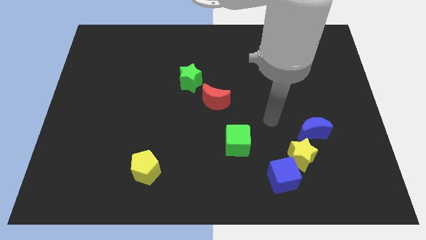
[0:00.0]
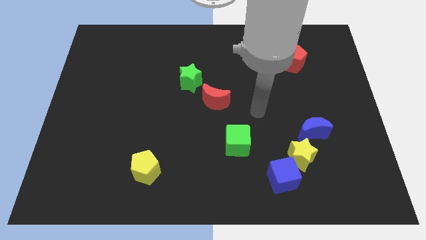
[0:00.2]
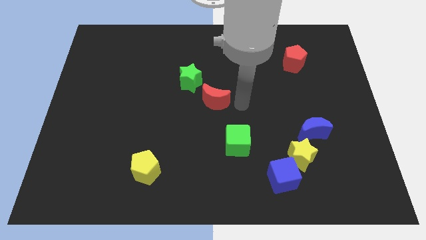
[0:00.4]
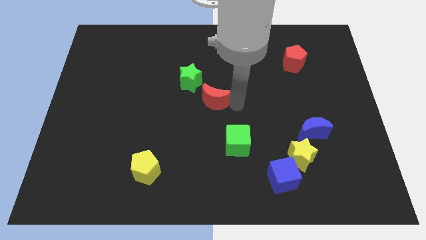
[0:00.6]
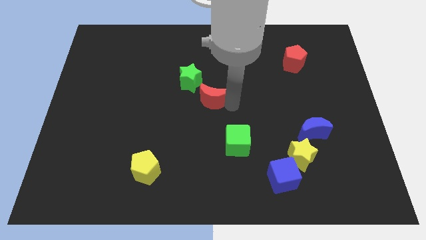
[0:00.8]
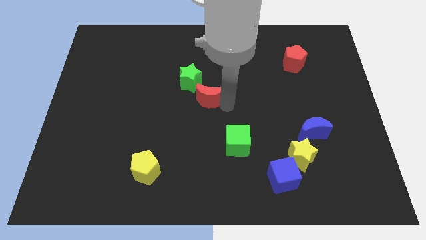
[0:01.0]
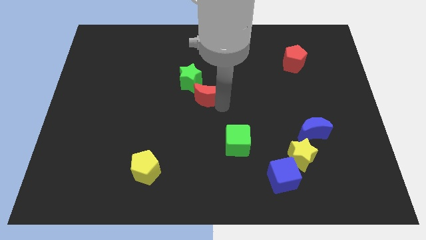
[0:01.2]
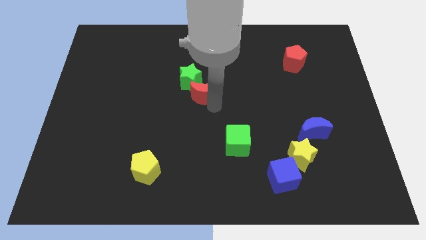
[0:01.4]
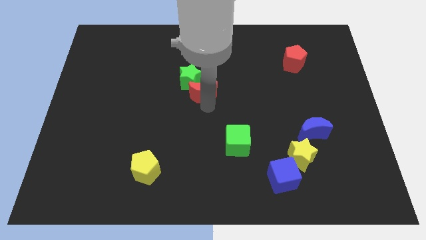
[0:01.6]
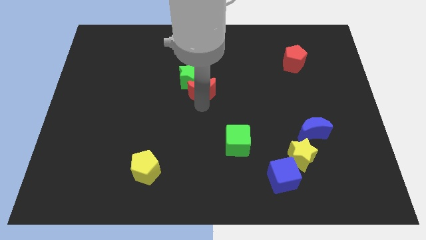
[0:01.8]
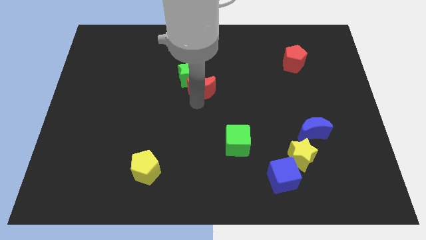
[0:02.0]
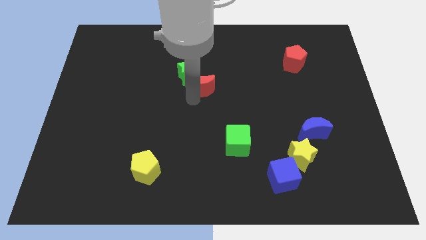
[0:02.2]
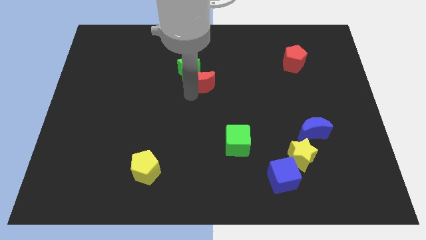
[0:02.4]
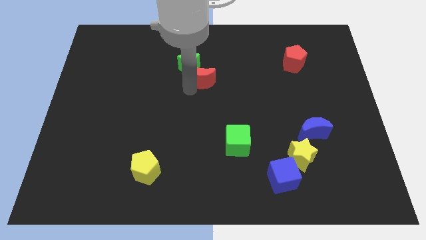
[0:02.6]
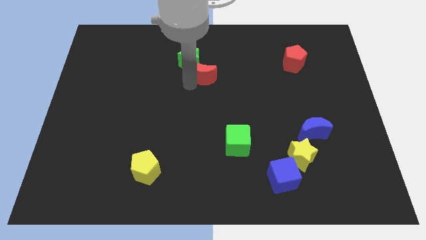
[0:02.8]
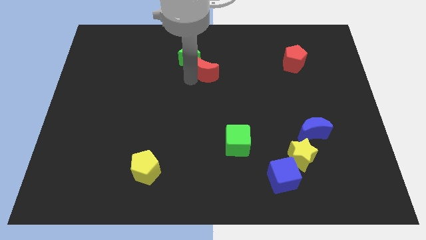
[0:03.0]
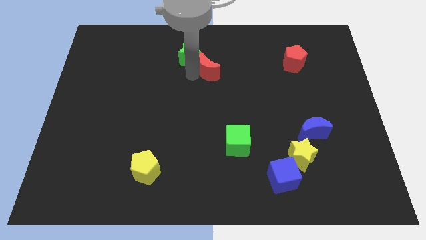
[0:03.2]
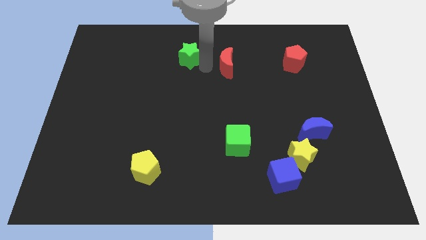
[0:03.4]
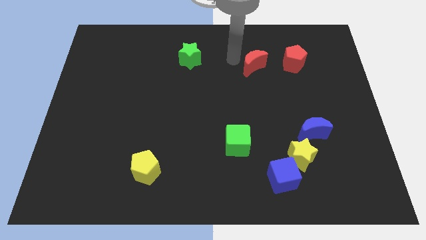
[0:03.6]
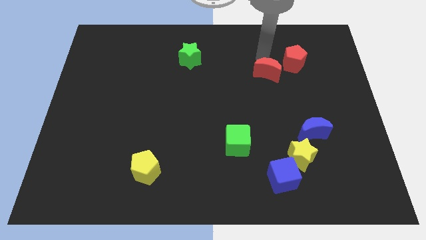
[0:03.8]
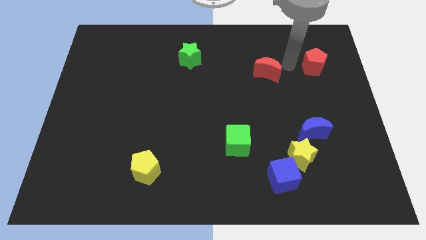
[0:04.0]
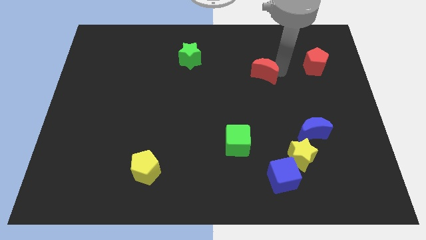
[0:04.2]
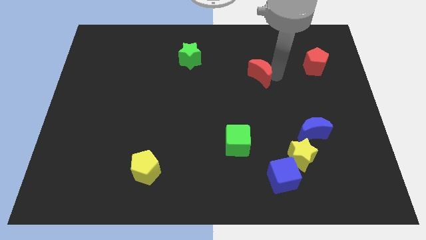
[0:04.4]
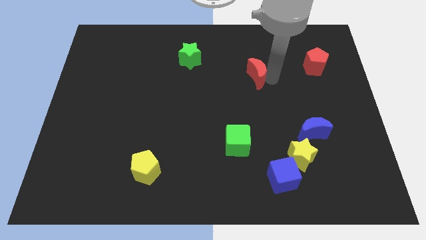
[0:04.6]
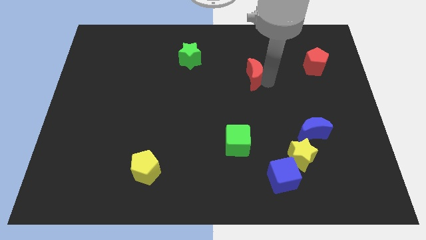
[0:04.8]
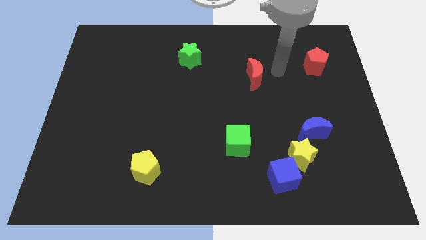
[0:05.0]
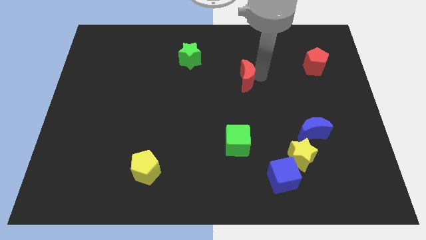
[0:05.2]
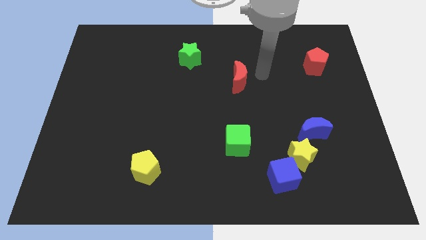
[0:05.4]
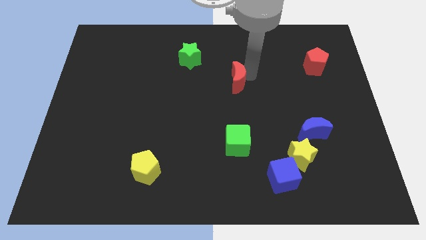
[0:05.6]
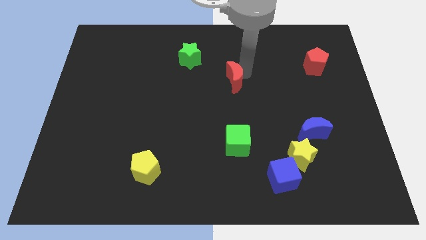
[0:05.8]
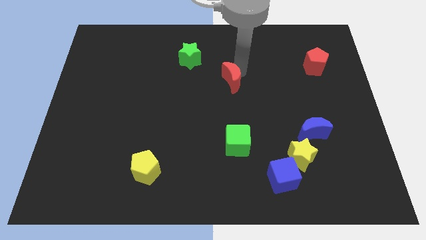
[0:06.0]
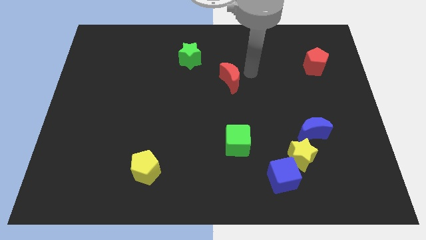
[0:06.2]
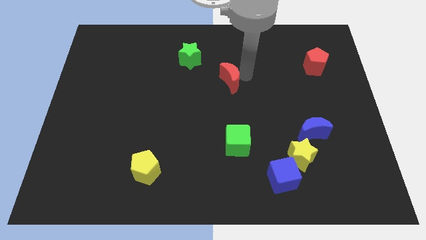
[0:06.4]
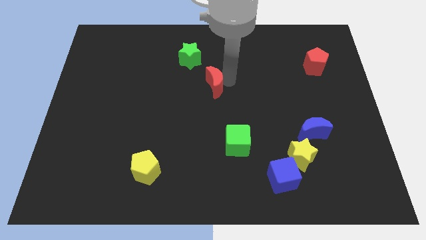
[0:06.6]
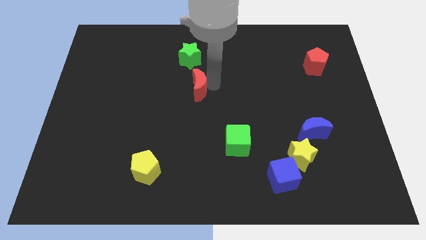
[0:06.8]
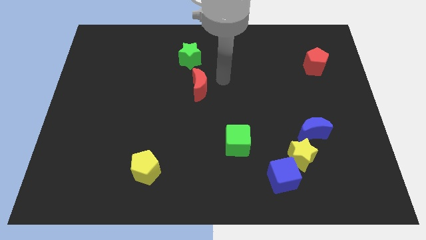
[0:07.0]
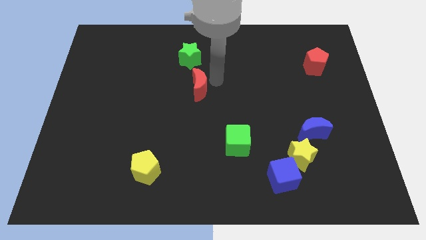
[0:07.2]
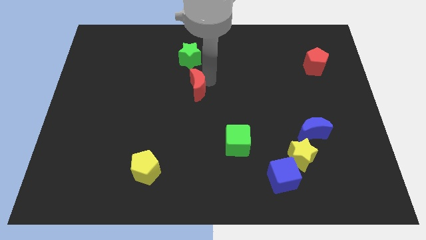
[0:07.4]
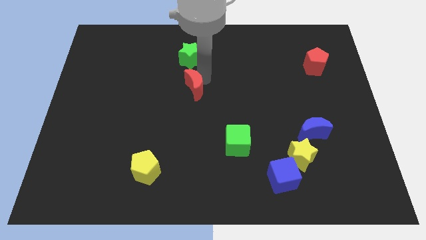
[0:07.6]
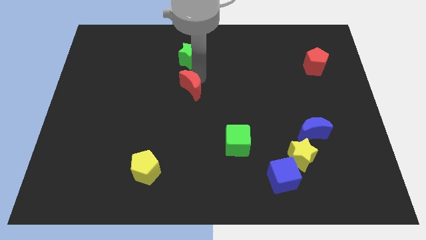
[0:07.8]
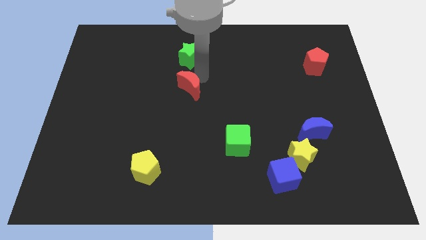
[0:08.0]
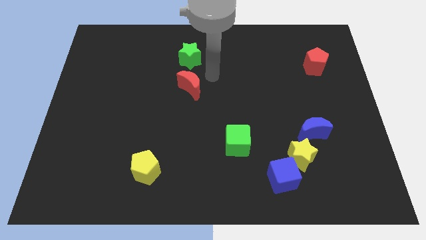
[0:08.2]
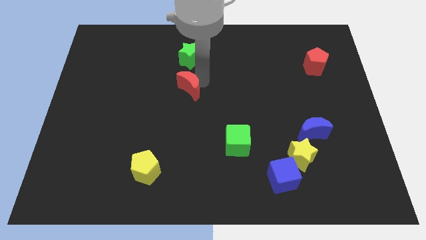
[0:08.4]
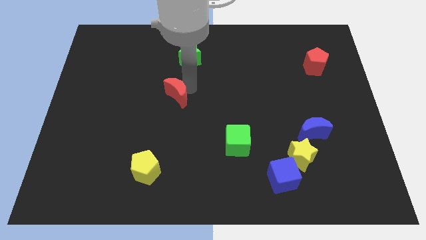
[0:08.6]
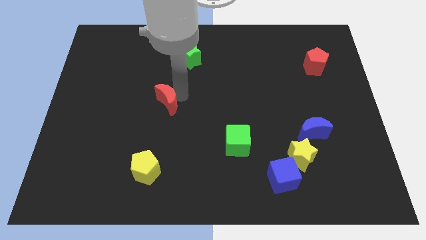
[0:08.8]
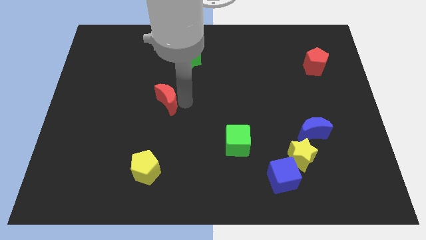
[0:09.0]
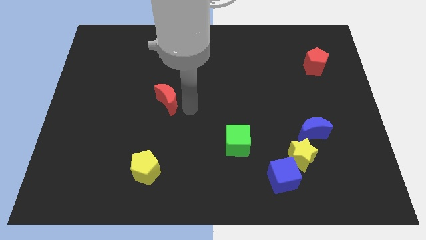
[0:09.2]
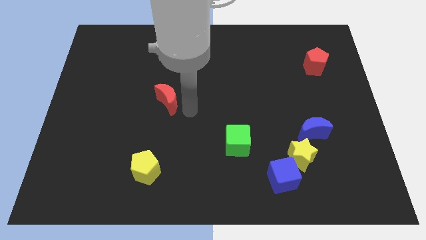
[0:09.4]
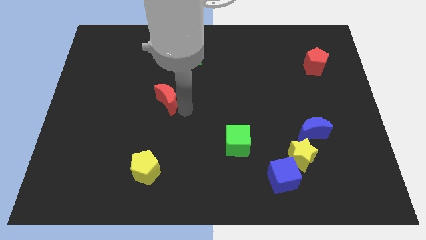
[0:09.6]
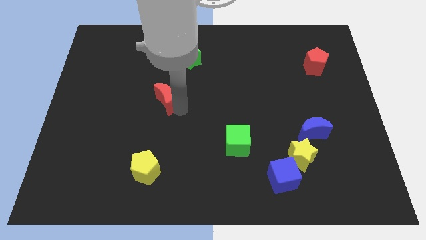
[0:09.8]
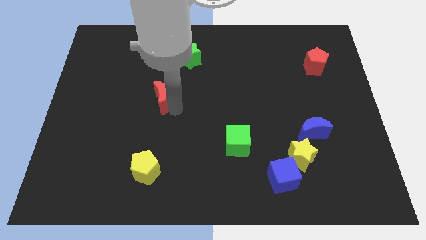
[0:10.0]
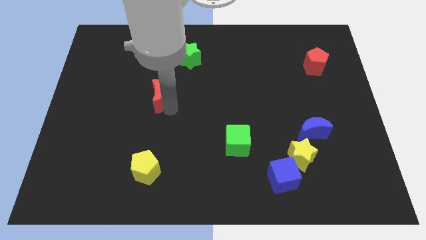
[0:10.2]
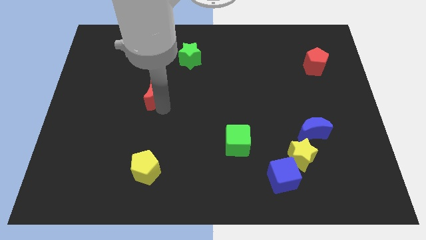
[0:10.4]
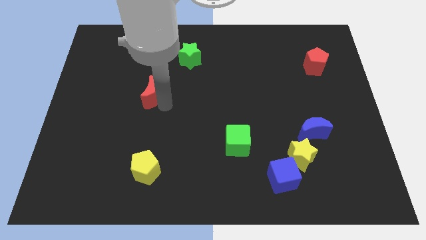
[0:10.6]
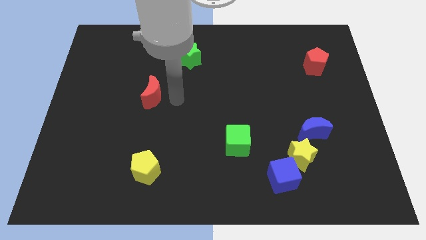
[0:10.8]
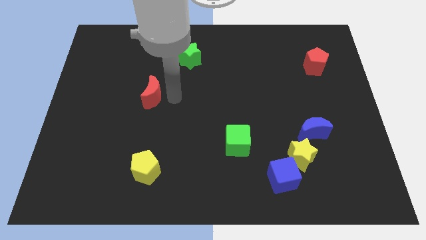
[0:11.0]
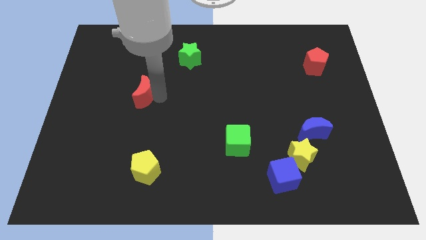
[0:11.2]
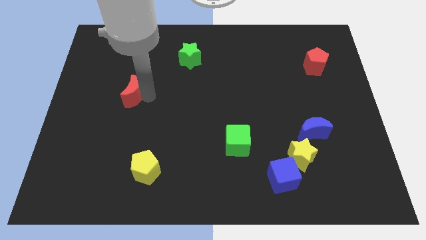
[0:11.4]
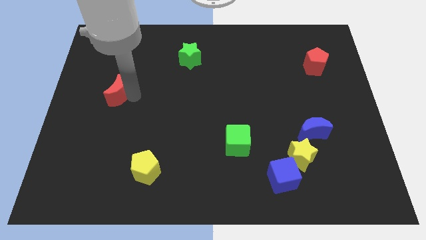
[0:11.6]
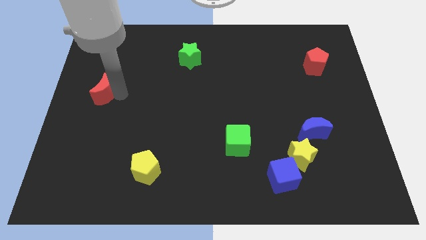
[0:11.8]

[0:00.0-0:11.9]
move the red moon to the left side of the board

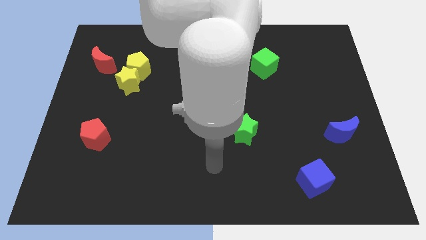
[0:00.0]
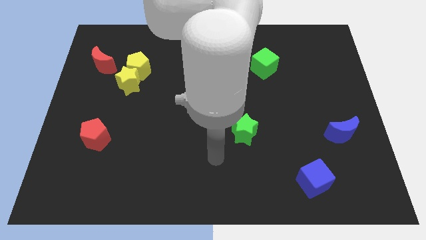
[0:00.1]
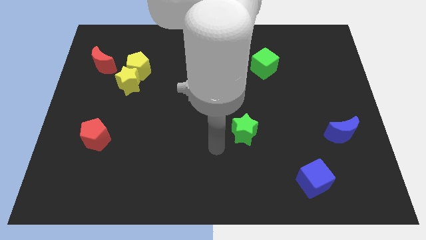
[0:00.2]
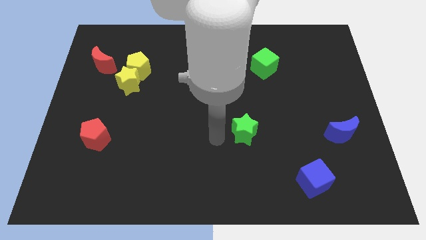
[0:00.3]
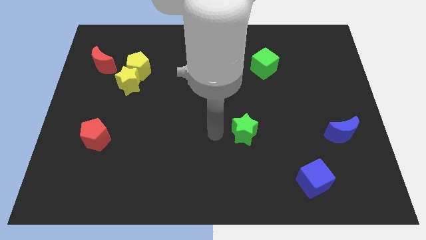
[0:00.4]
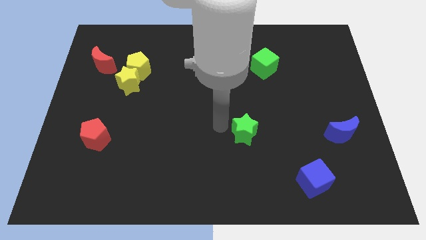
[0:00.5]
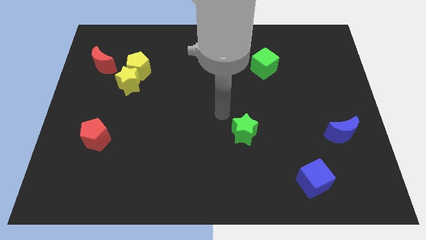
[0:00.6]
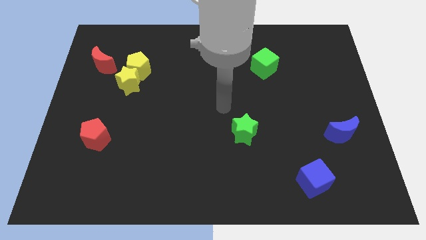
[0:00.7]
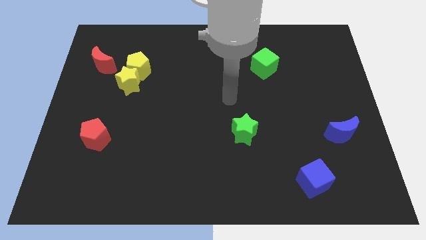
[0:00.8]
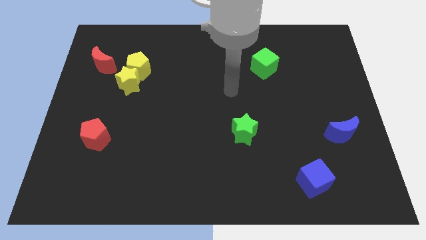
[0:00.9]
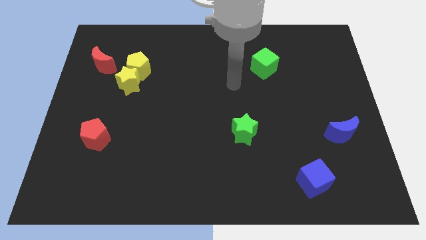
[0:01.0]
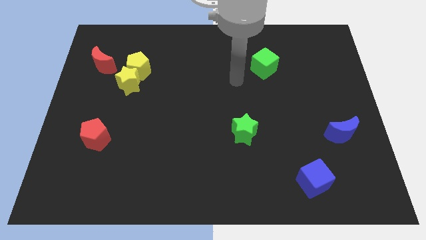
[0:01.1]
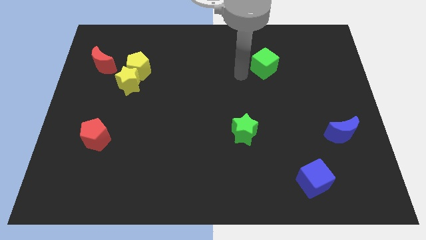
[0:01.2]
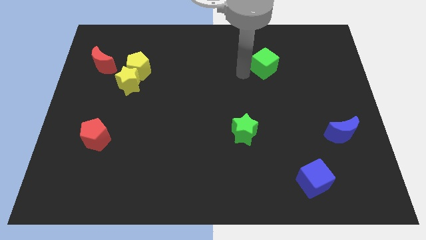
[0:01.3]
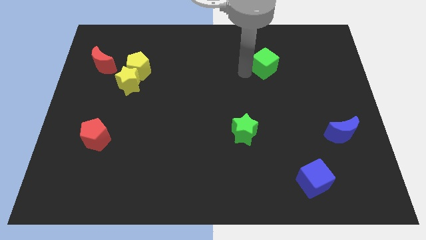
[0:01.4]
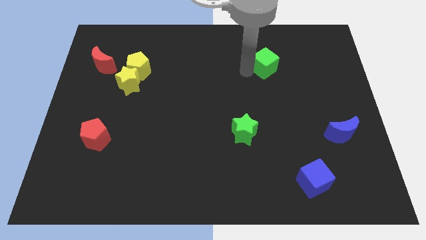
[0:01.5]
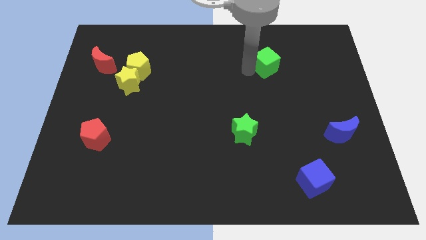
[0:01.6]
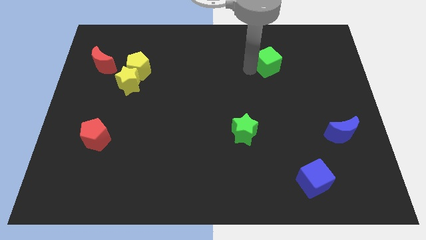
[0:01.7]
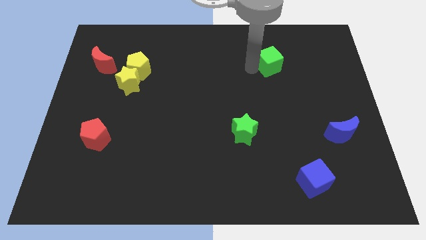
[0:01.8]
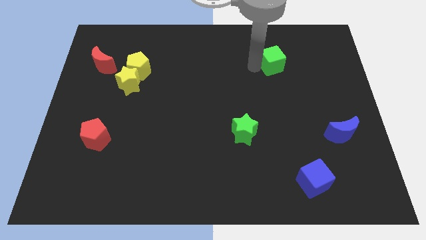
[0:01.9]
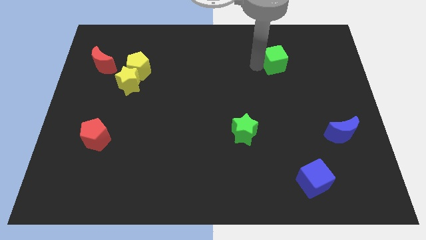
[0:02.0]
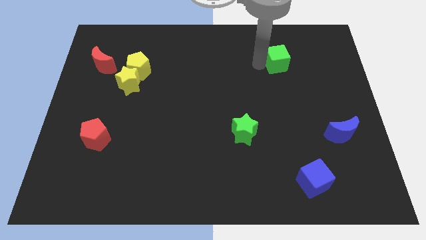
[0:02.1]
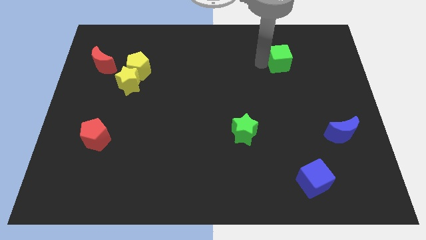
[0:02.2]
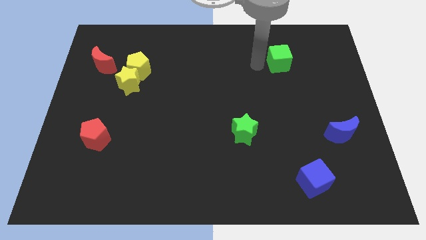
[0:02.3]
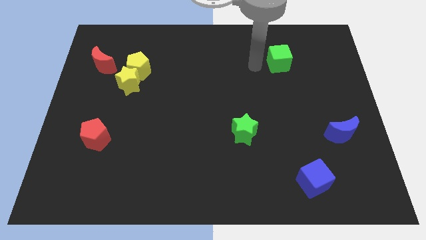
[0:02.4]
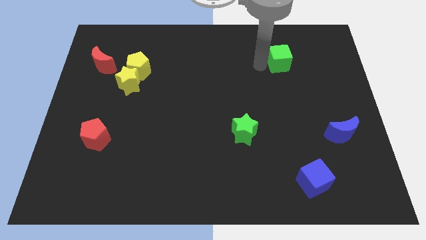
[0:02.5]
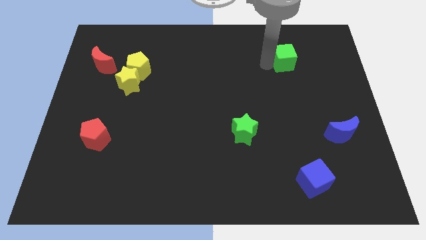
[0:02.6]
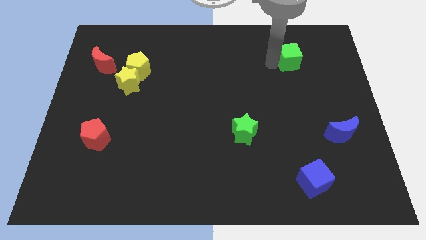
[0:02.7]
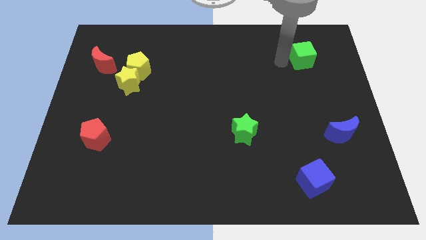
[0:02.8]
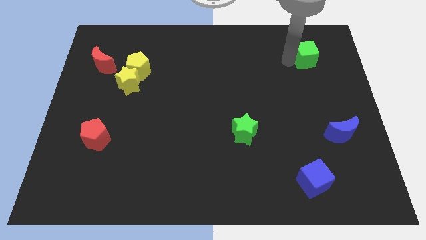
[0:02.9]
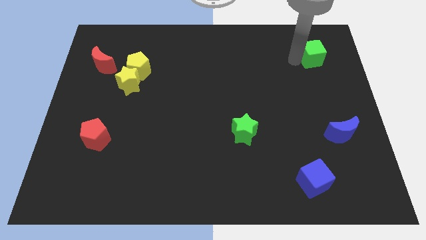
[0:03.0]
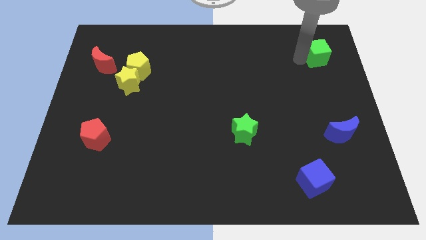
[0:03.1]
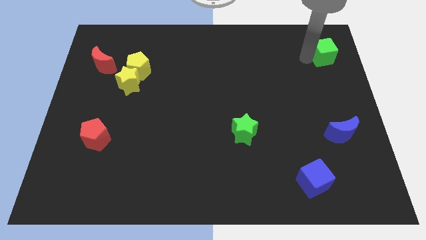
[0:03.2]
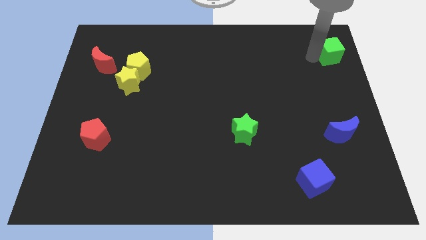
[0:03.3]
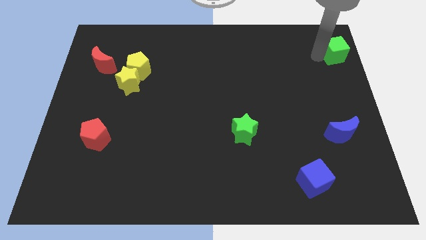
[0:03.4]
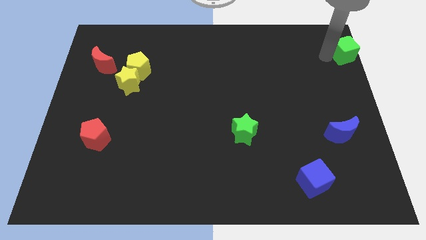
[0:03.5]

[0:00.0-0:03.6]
push the green cube to the top right of the board
